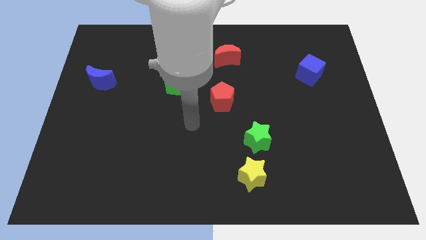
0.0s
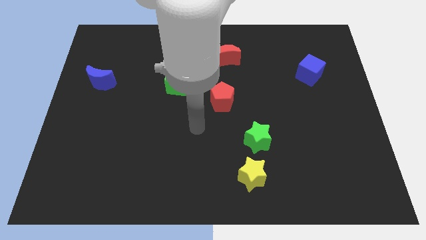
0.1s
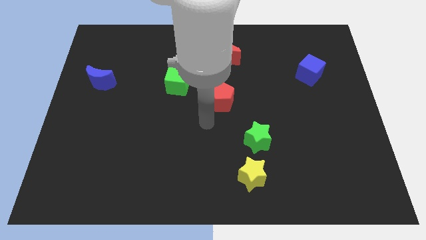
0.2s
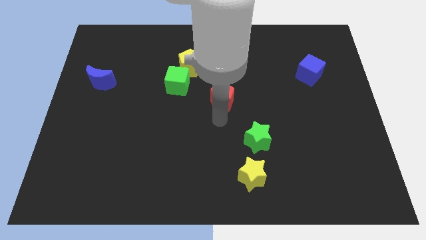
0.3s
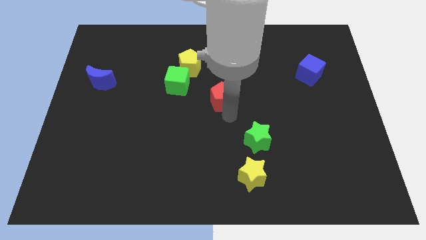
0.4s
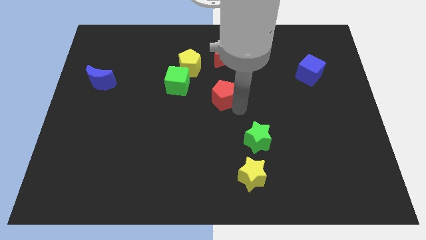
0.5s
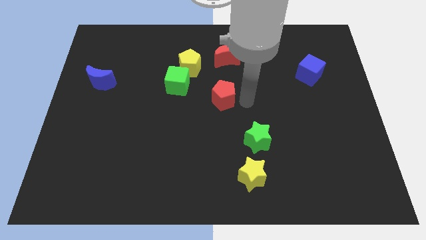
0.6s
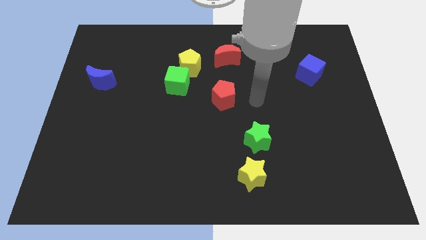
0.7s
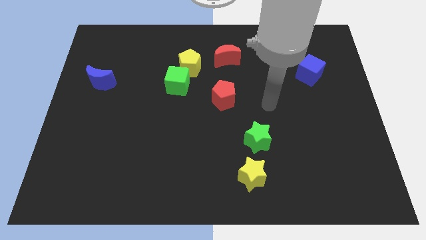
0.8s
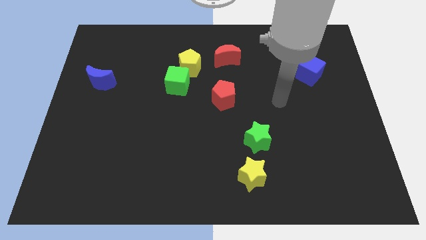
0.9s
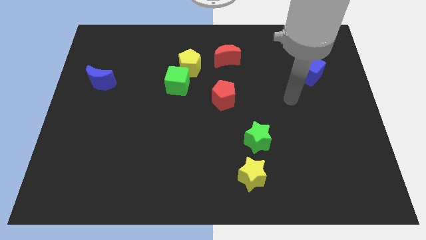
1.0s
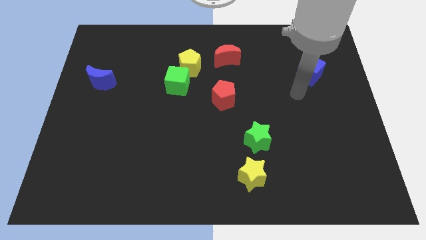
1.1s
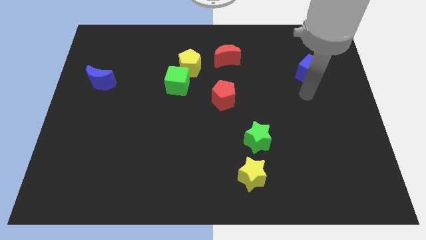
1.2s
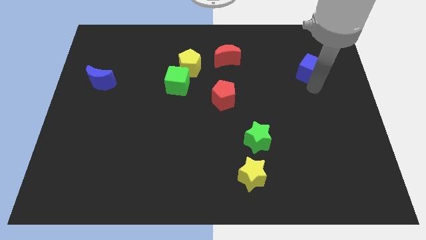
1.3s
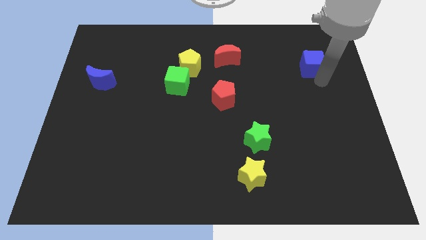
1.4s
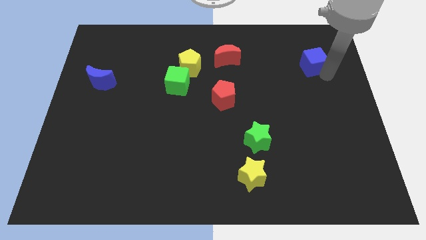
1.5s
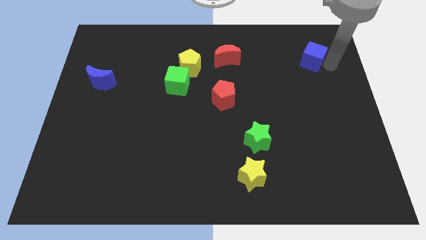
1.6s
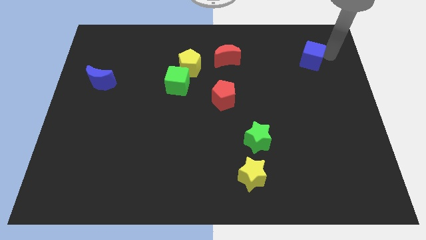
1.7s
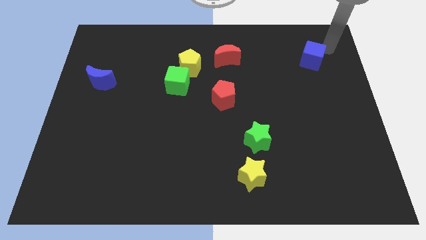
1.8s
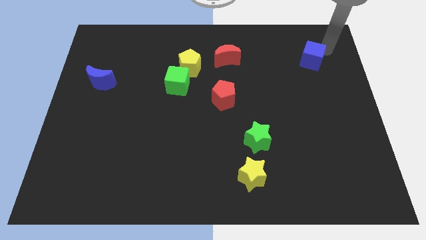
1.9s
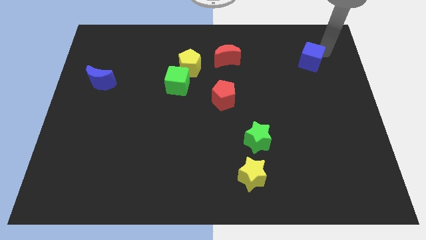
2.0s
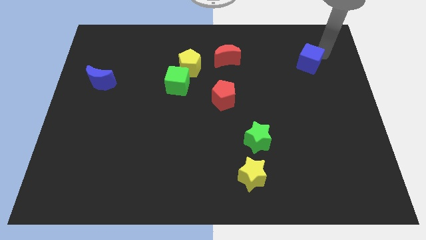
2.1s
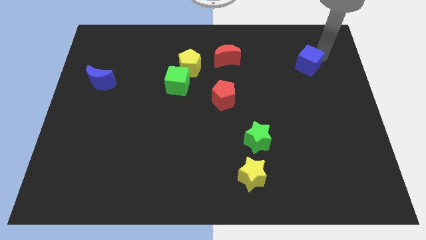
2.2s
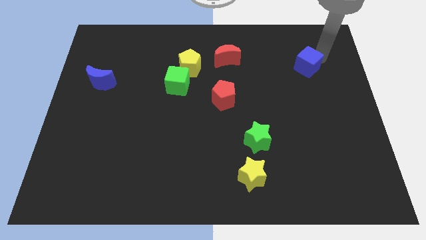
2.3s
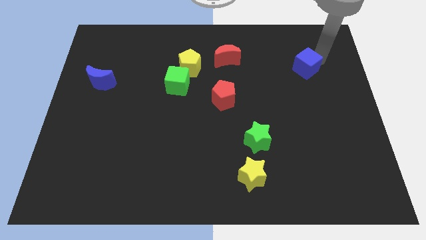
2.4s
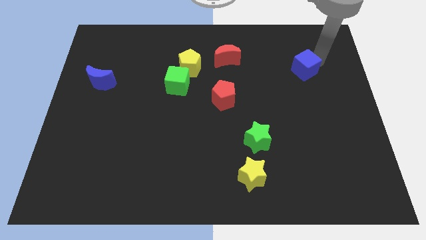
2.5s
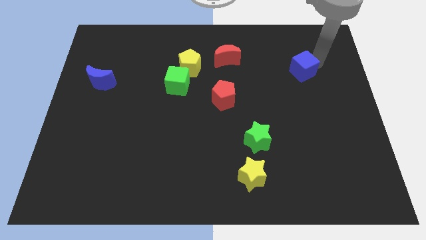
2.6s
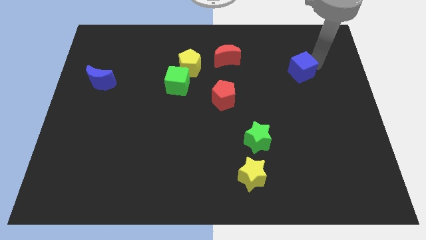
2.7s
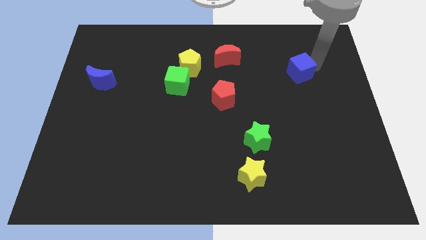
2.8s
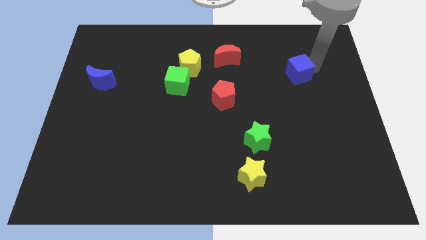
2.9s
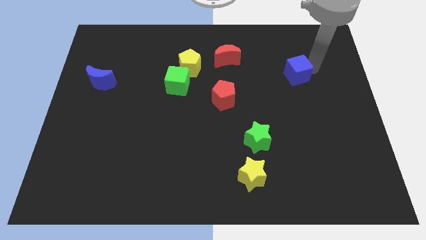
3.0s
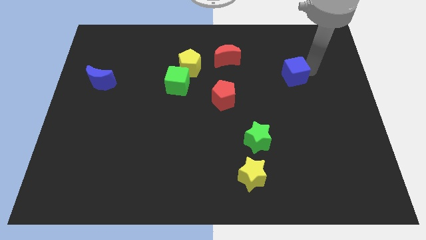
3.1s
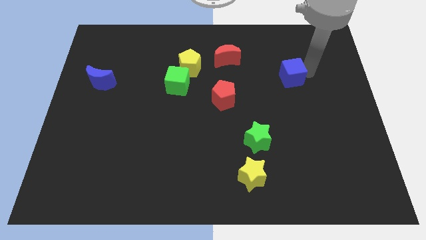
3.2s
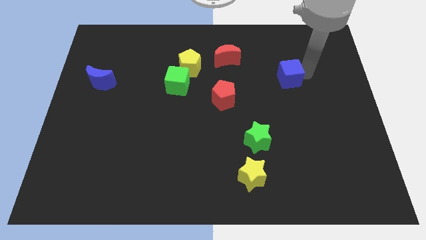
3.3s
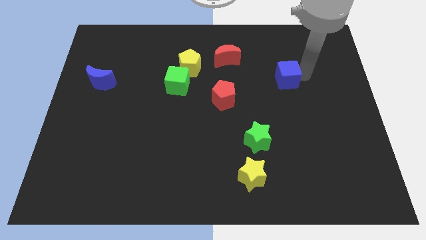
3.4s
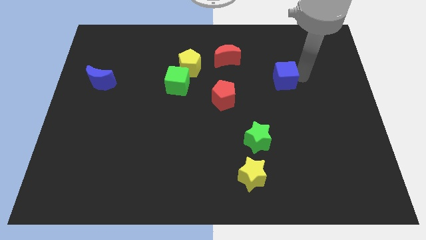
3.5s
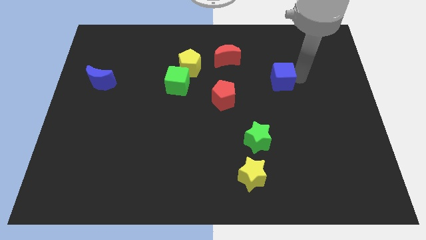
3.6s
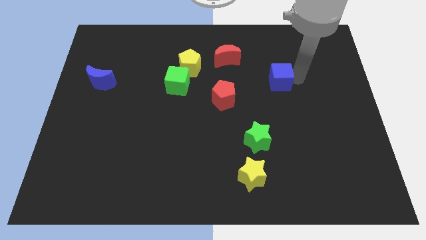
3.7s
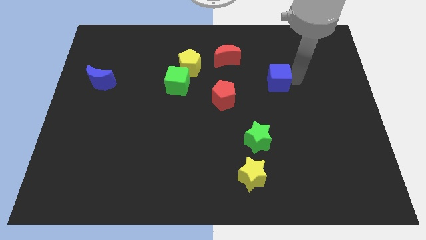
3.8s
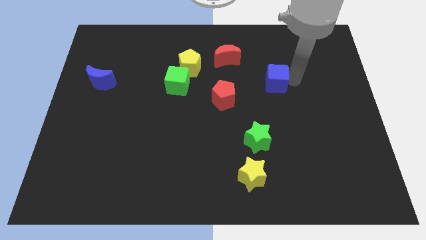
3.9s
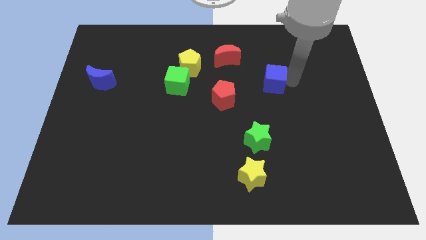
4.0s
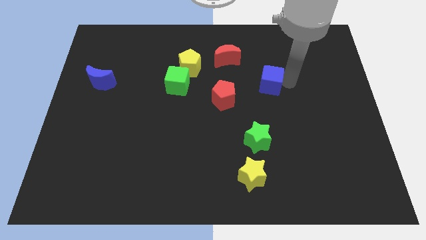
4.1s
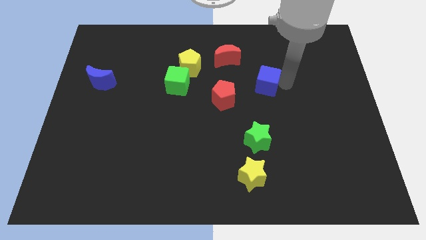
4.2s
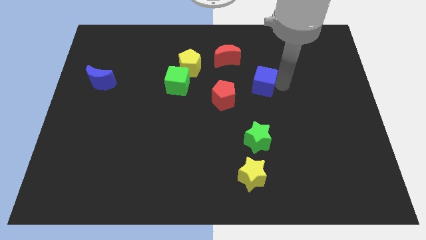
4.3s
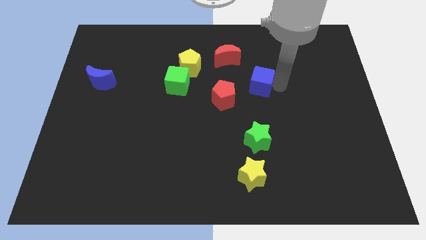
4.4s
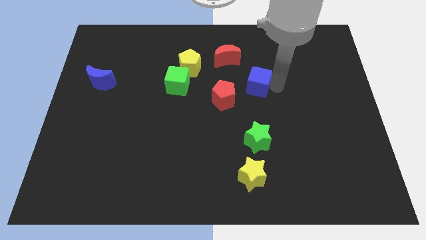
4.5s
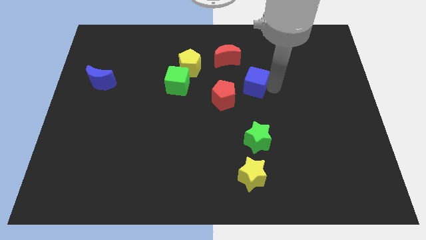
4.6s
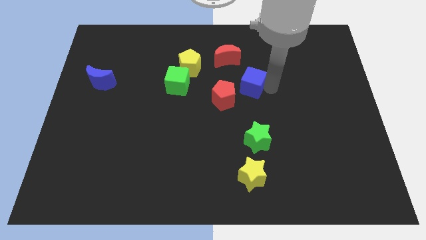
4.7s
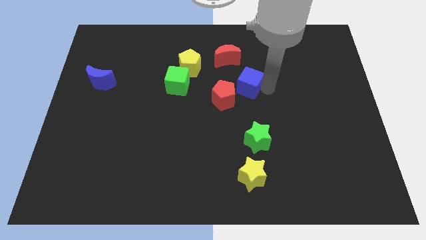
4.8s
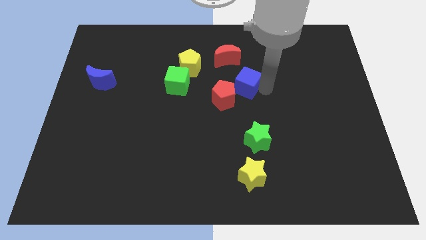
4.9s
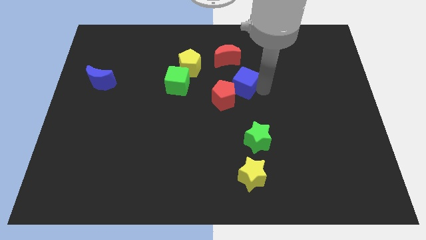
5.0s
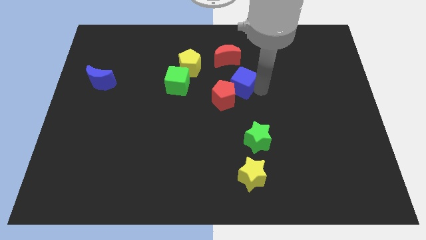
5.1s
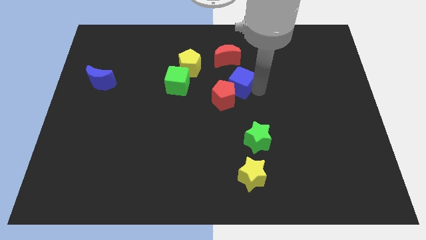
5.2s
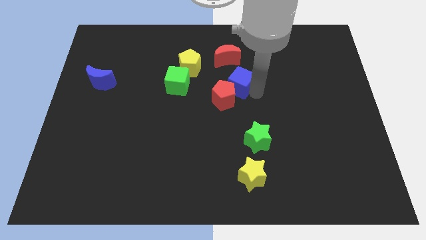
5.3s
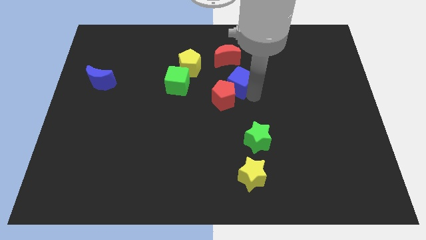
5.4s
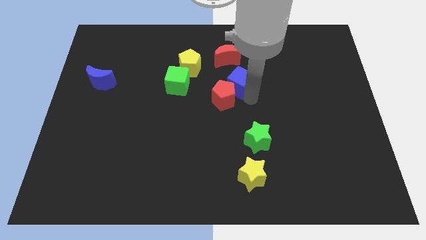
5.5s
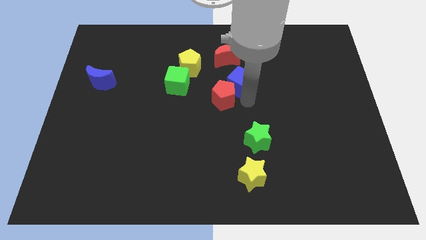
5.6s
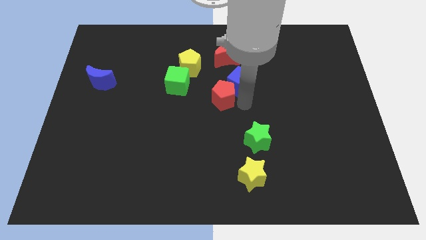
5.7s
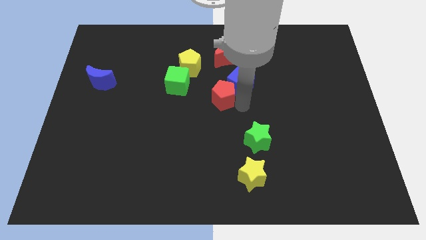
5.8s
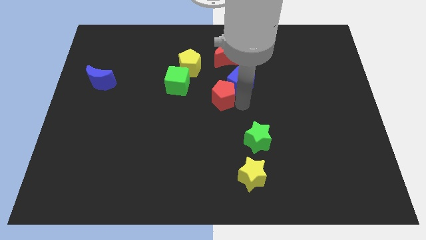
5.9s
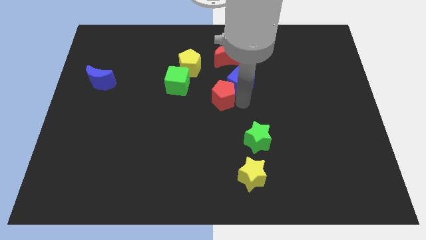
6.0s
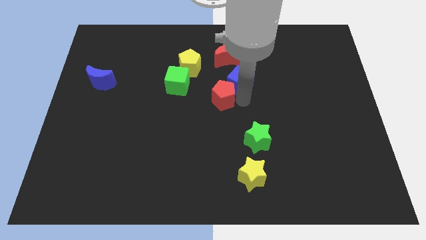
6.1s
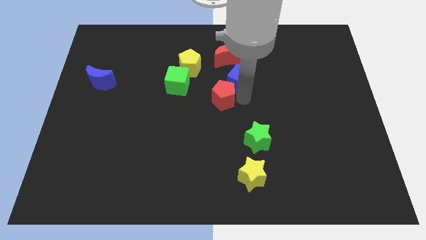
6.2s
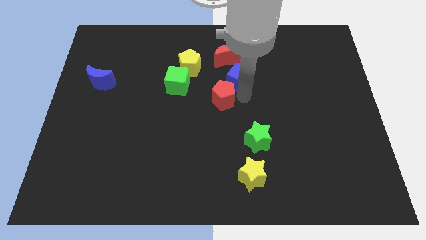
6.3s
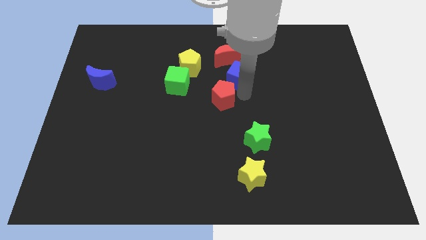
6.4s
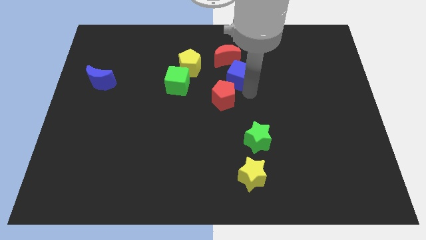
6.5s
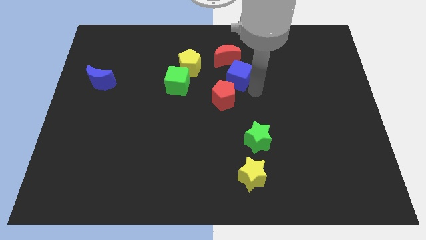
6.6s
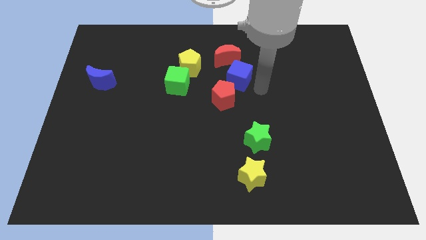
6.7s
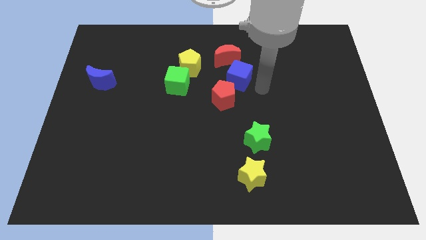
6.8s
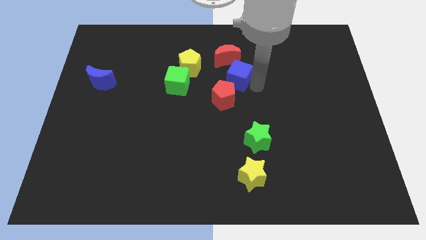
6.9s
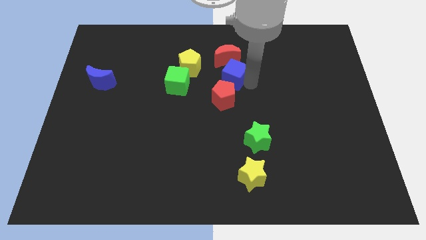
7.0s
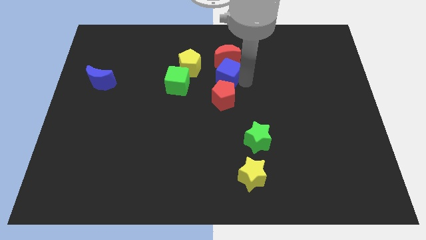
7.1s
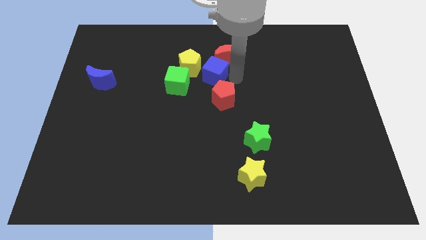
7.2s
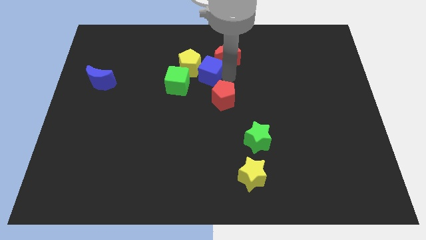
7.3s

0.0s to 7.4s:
slide the blue cube close to the yellow pentagon
